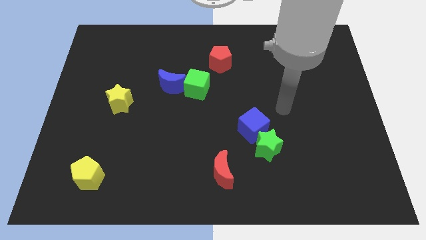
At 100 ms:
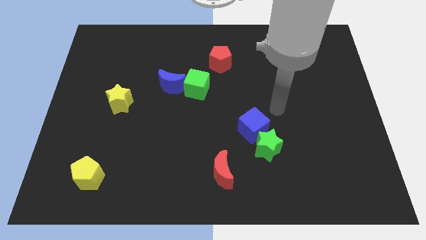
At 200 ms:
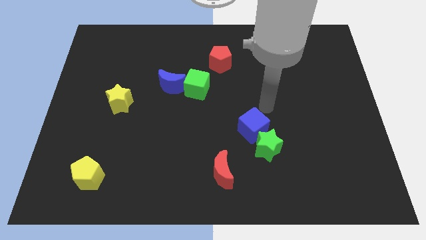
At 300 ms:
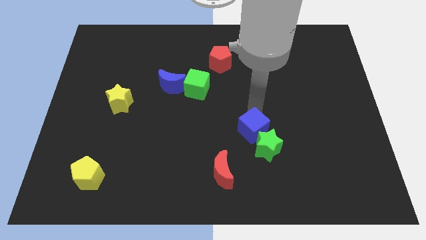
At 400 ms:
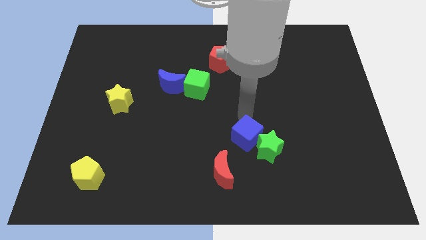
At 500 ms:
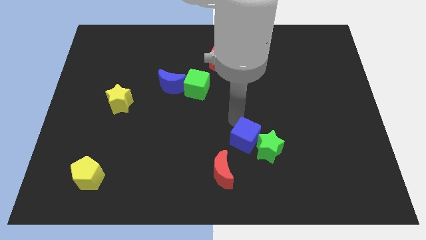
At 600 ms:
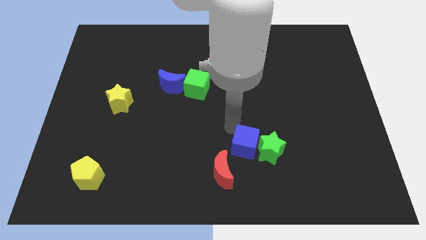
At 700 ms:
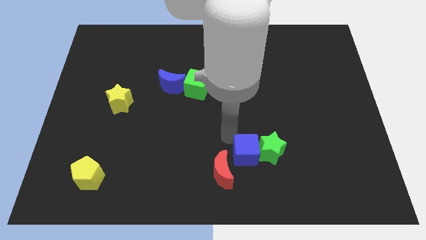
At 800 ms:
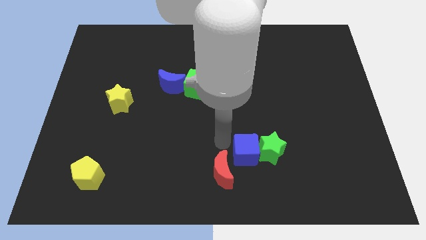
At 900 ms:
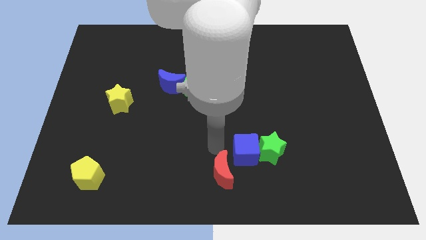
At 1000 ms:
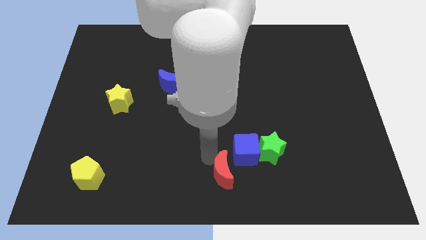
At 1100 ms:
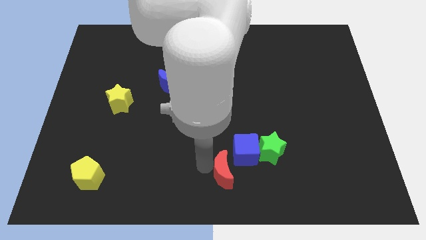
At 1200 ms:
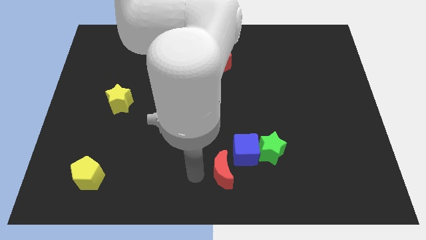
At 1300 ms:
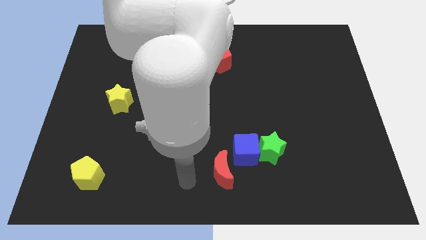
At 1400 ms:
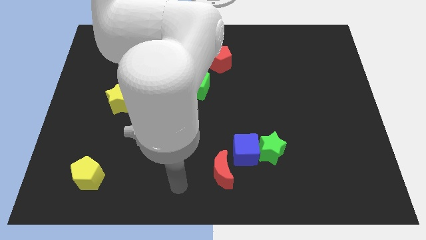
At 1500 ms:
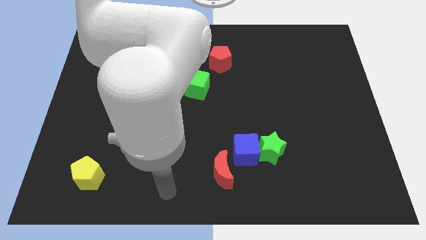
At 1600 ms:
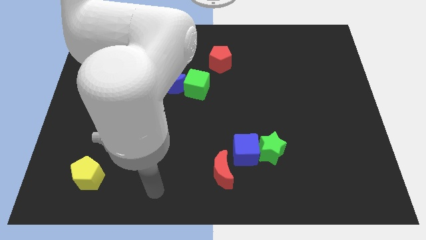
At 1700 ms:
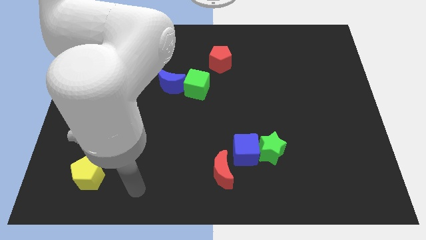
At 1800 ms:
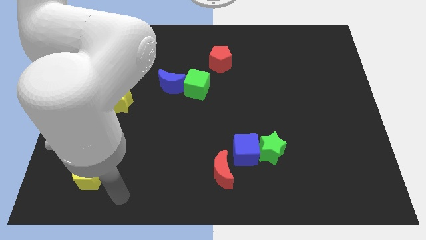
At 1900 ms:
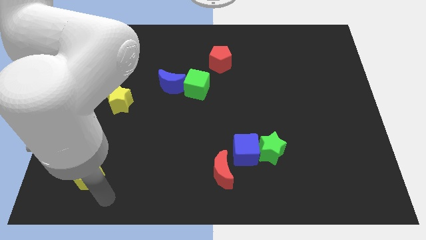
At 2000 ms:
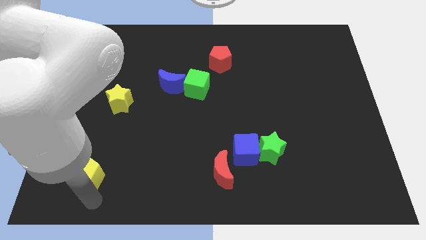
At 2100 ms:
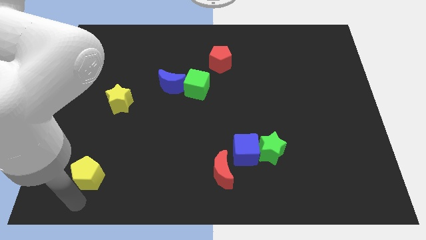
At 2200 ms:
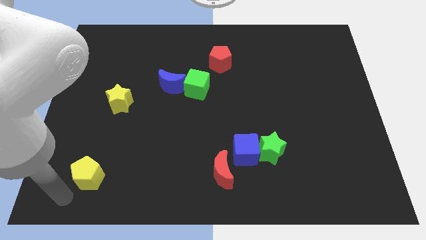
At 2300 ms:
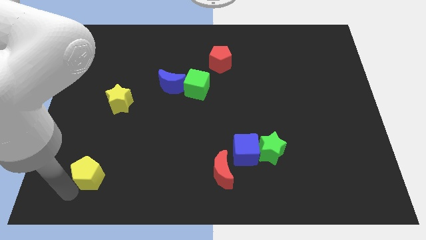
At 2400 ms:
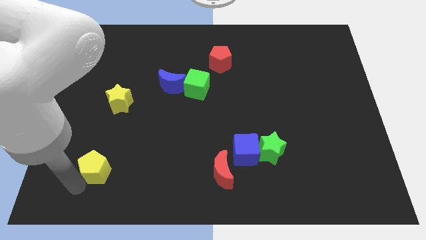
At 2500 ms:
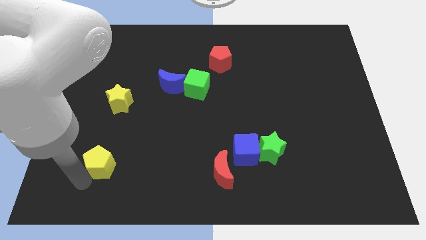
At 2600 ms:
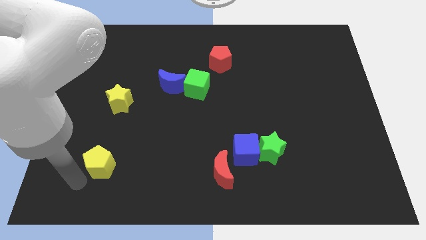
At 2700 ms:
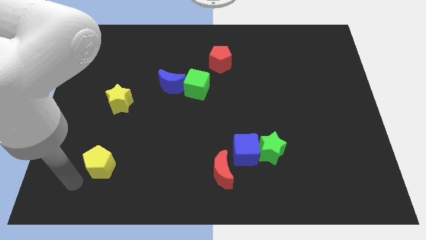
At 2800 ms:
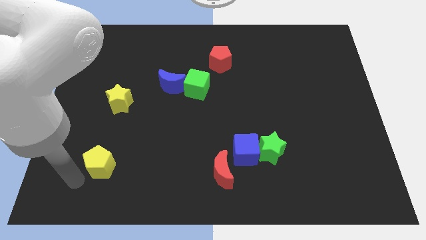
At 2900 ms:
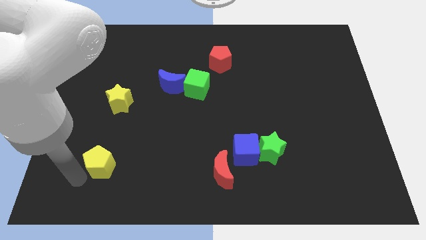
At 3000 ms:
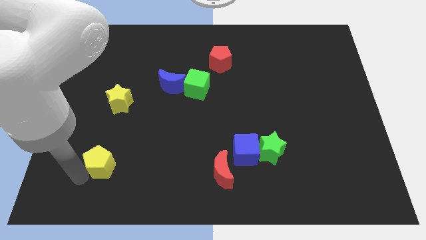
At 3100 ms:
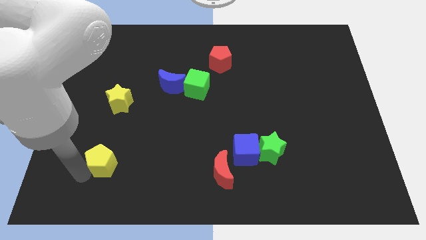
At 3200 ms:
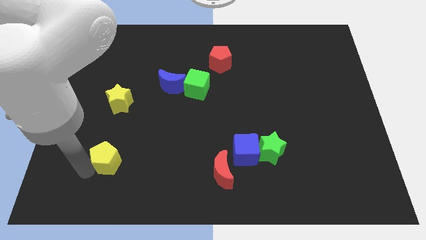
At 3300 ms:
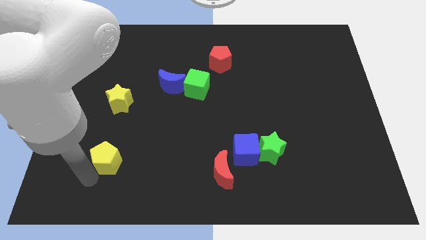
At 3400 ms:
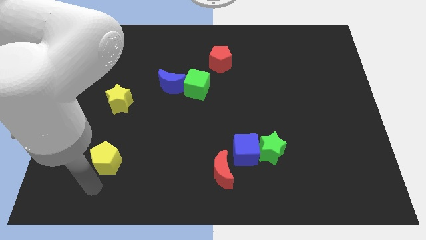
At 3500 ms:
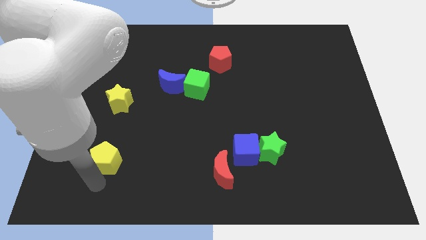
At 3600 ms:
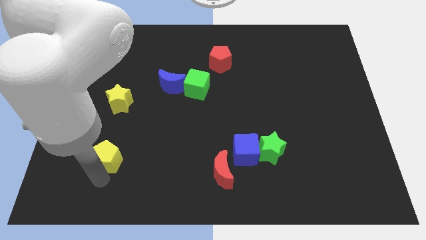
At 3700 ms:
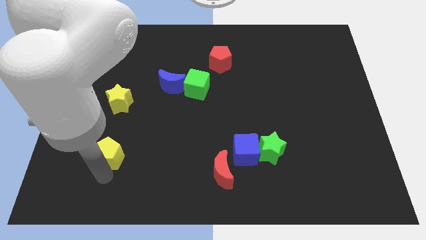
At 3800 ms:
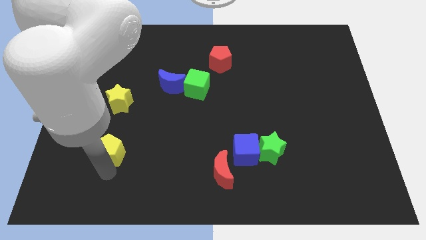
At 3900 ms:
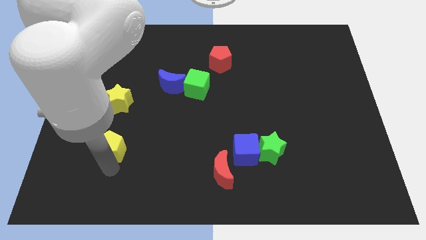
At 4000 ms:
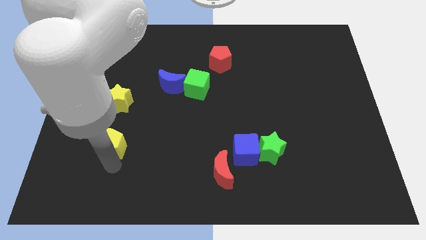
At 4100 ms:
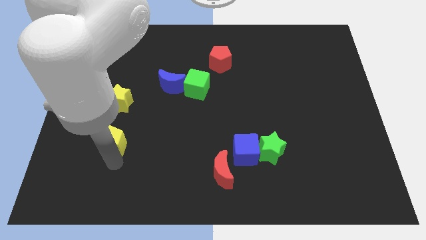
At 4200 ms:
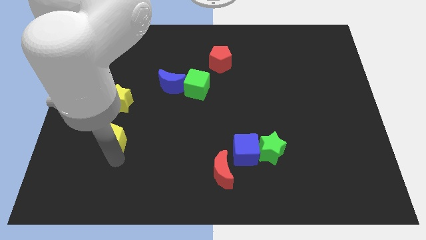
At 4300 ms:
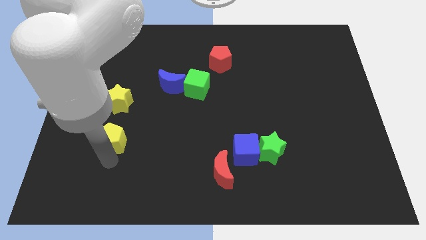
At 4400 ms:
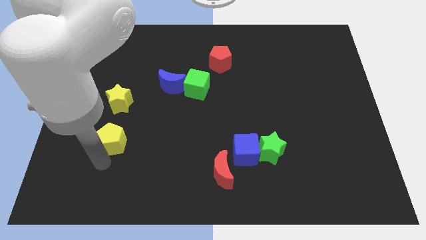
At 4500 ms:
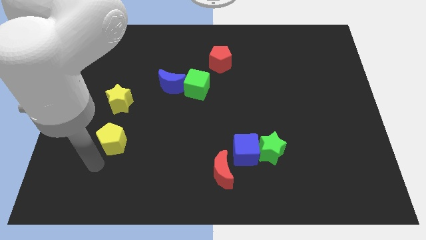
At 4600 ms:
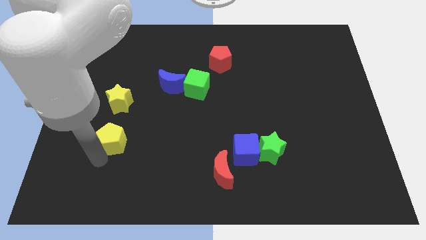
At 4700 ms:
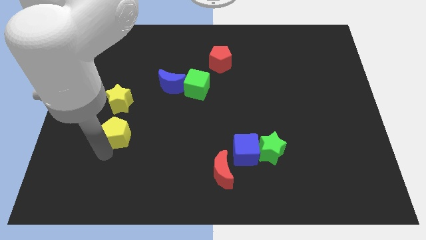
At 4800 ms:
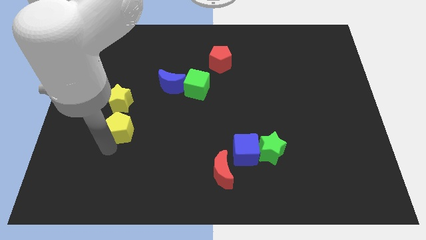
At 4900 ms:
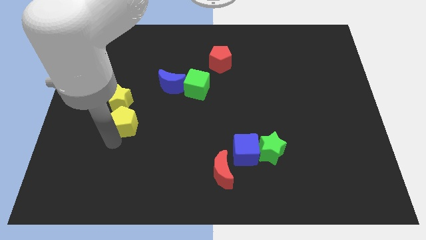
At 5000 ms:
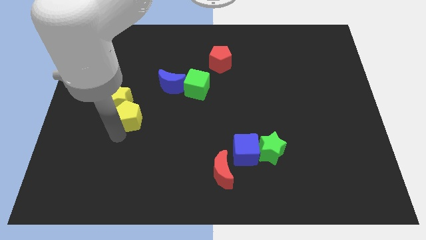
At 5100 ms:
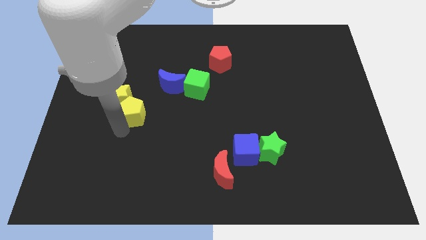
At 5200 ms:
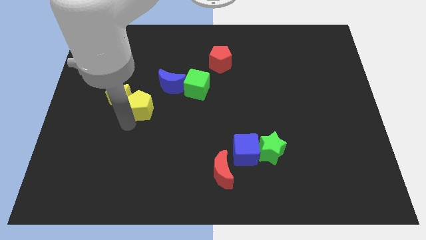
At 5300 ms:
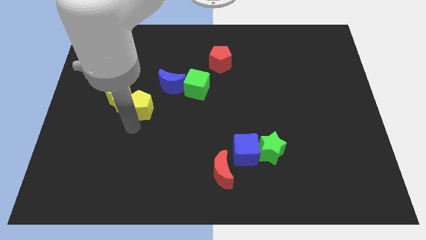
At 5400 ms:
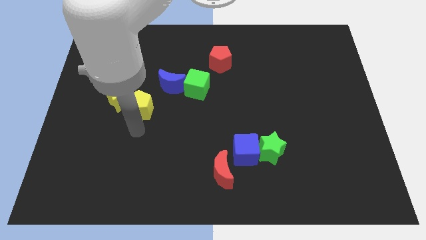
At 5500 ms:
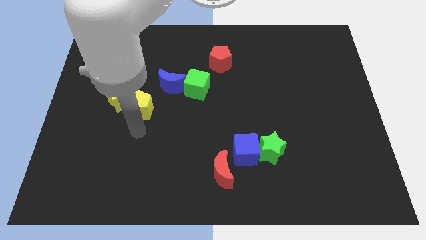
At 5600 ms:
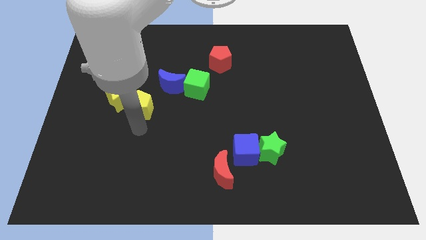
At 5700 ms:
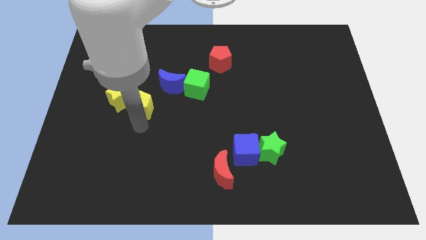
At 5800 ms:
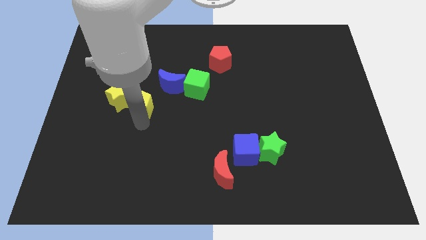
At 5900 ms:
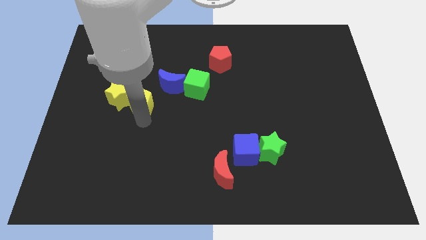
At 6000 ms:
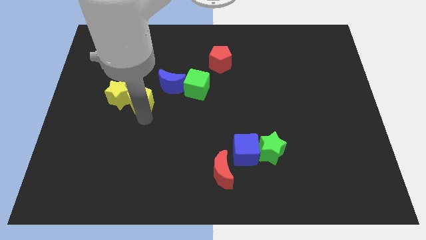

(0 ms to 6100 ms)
slide the yellow pentagon to the top right of the yellow star
